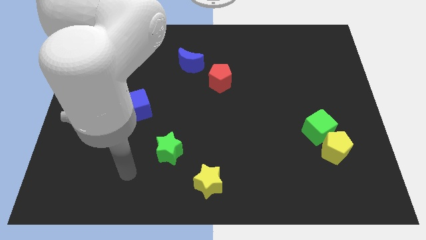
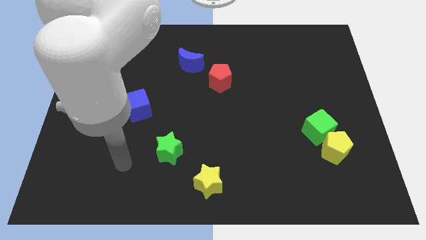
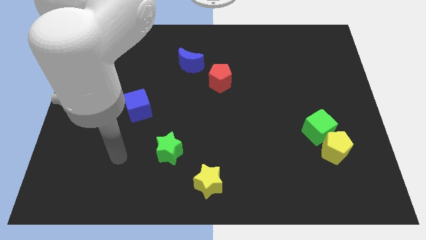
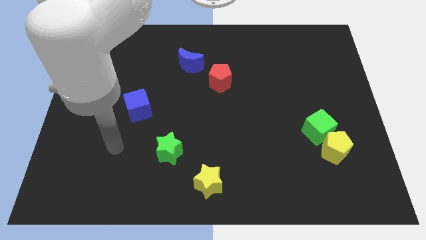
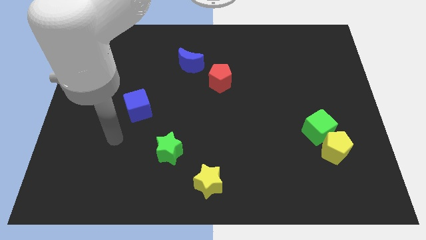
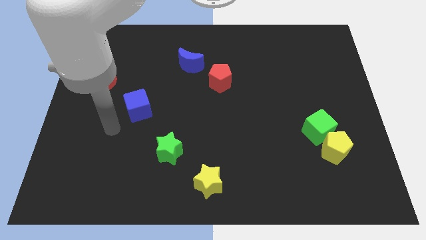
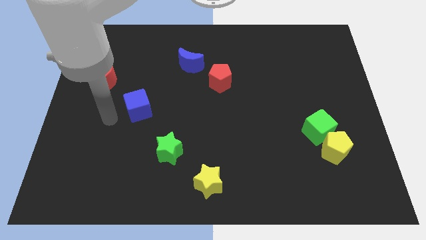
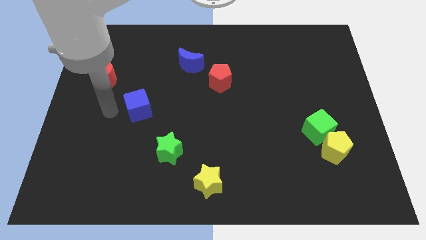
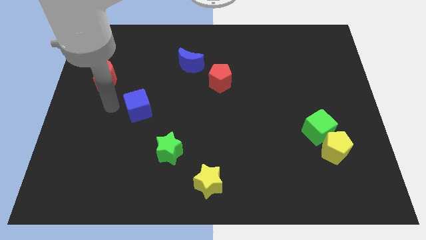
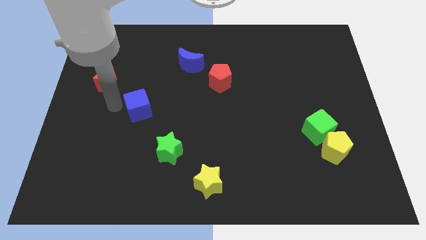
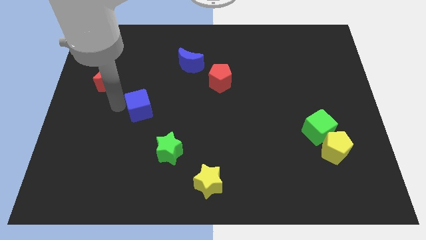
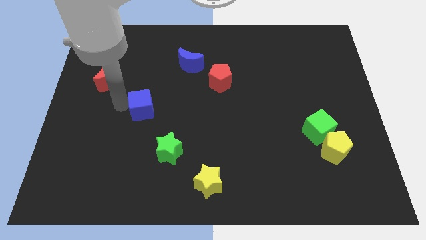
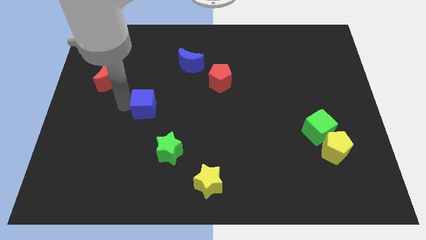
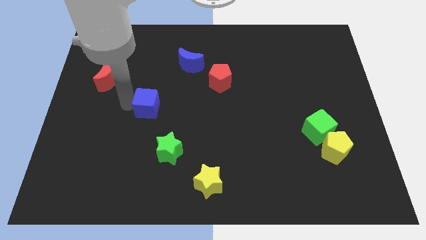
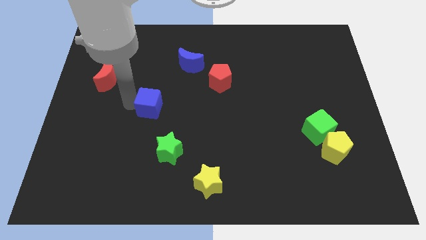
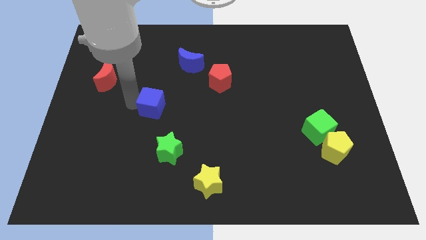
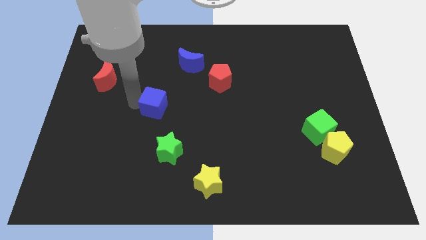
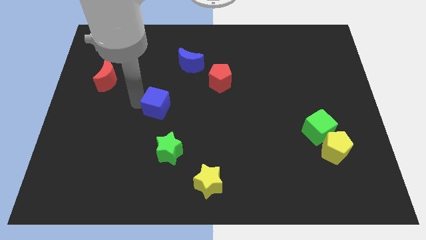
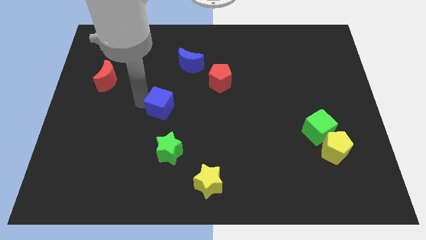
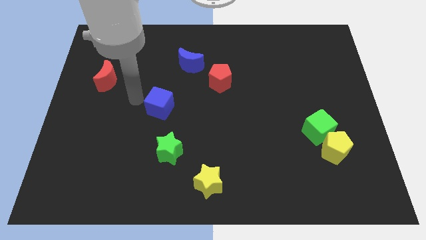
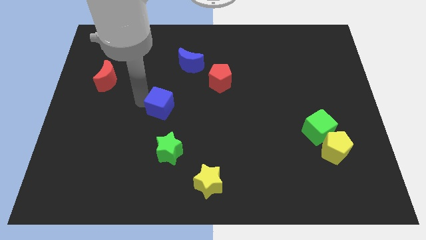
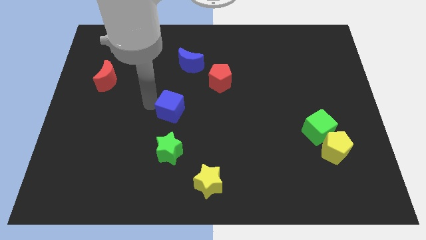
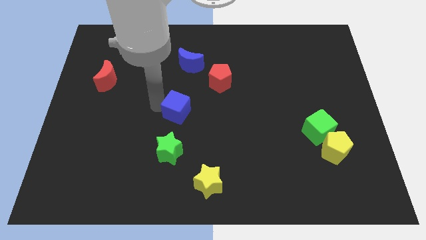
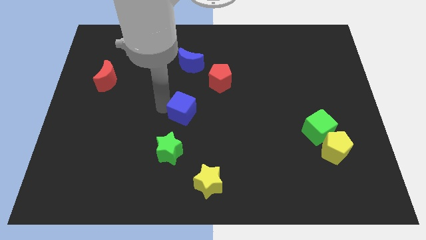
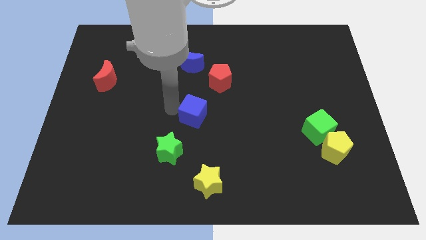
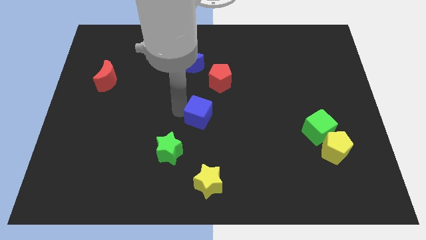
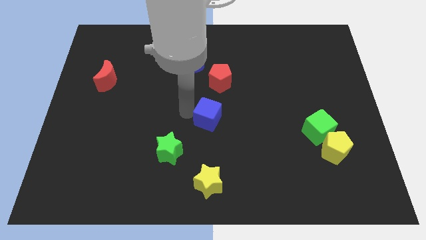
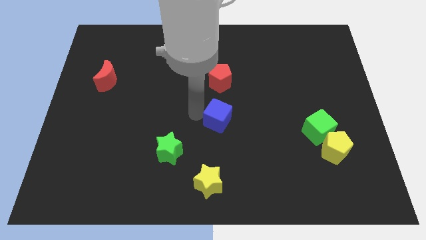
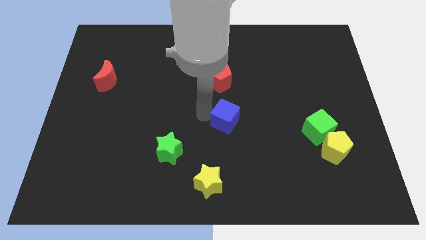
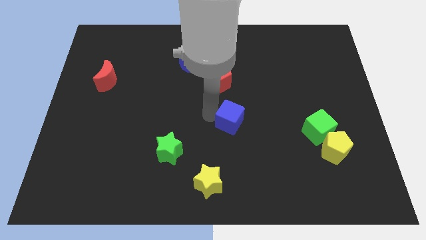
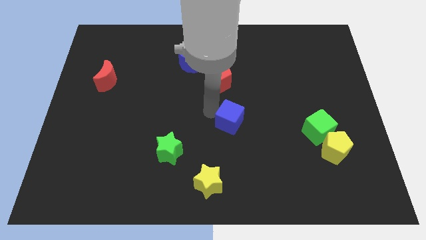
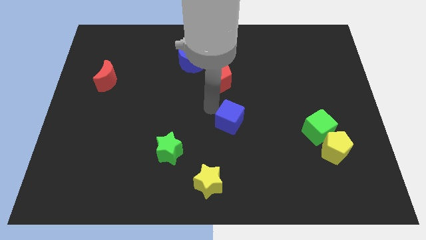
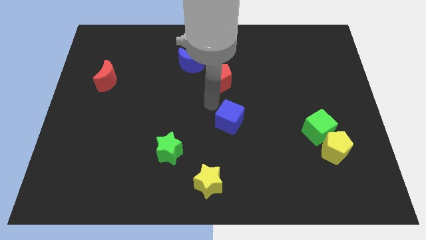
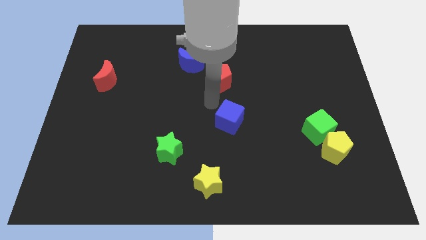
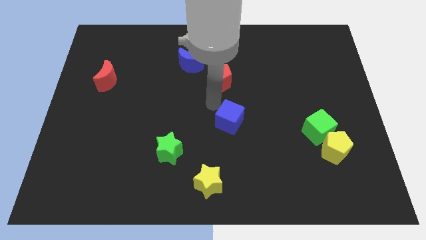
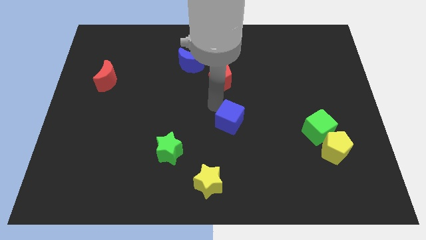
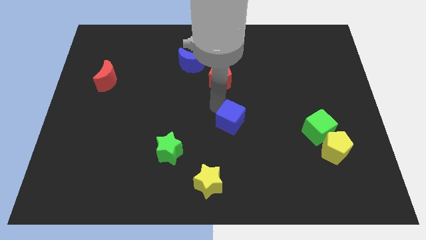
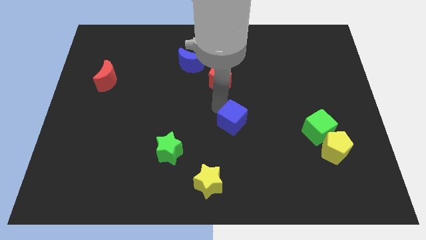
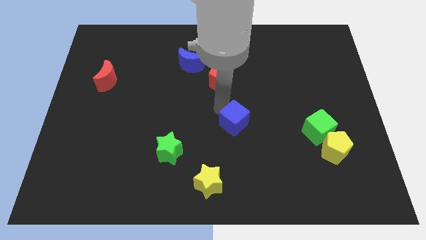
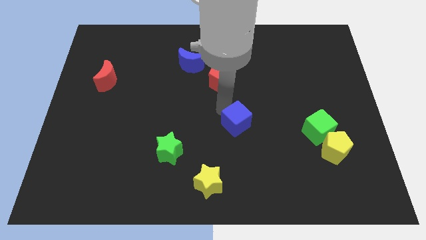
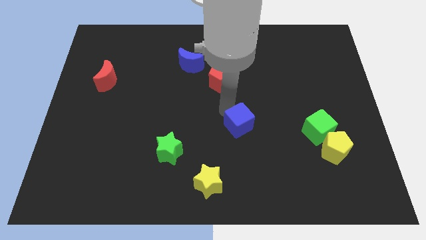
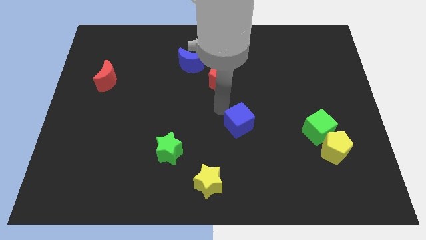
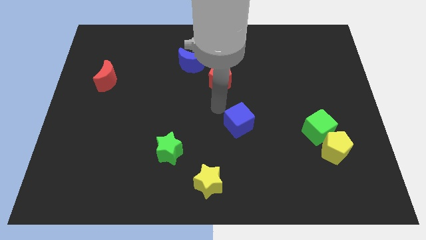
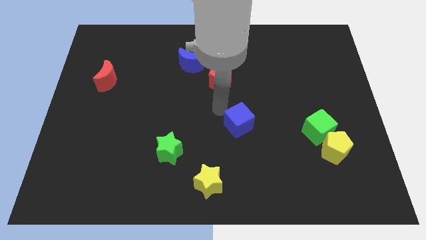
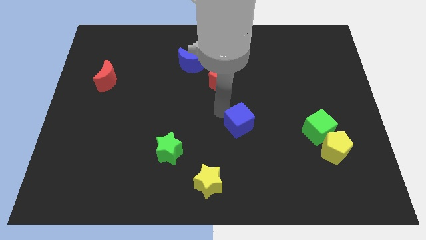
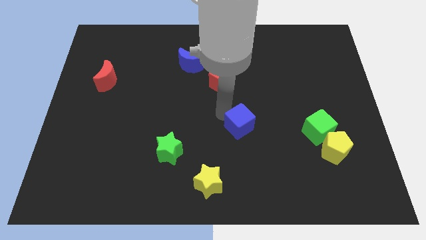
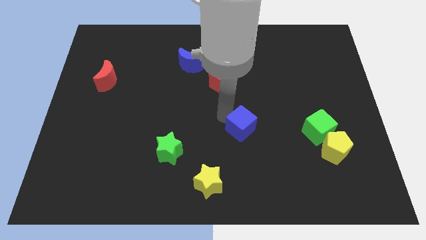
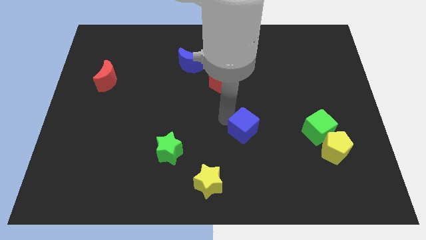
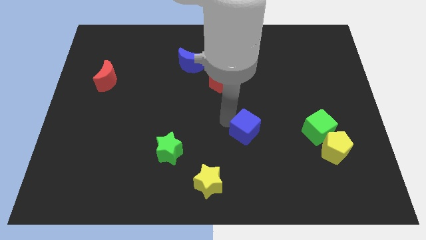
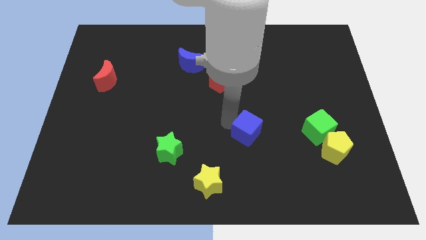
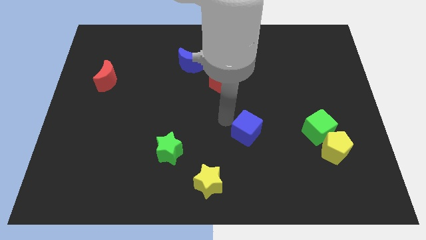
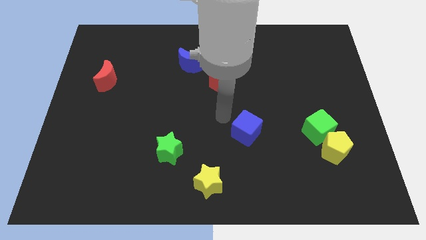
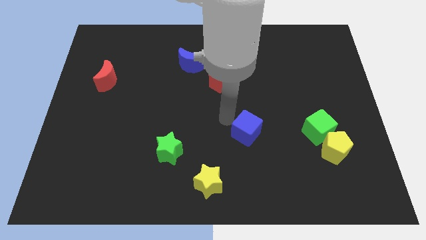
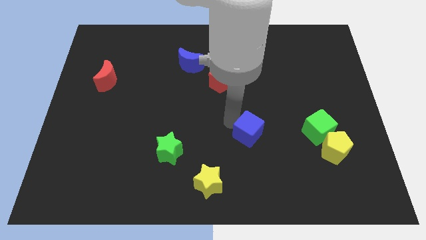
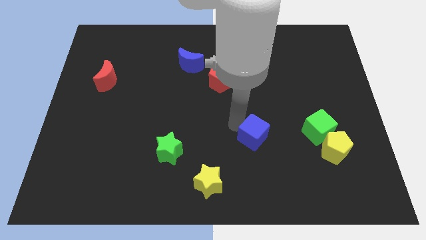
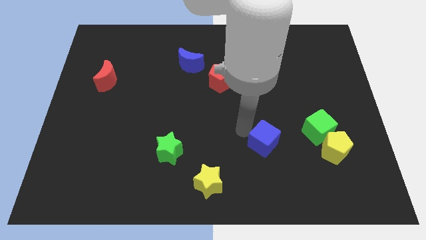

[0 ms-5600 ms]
move the blue cube to the left side of the yellow pentagon

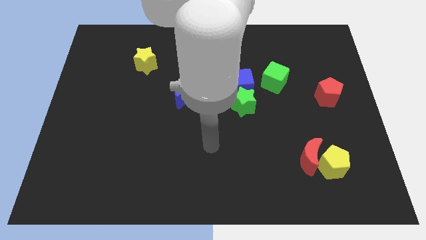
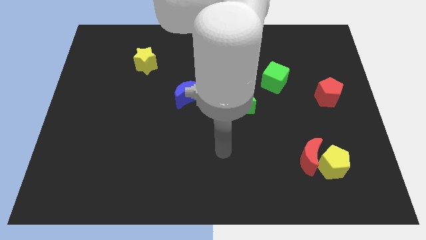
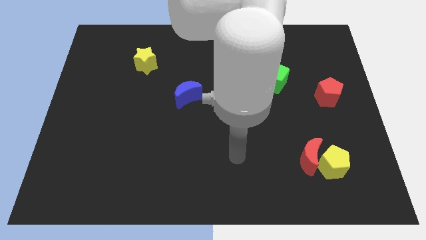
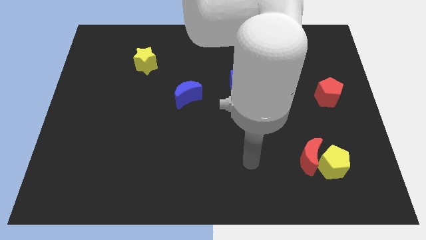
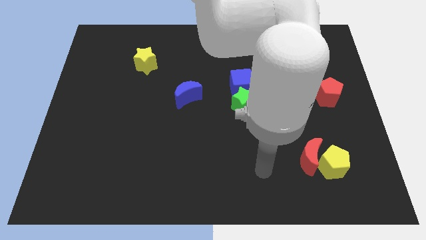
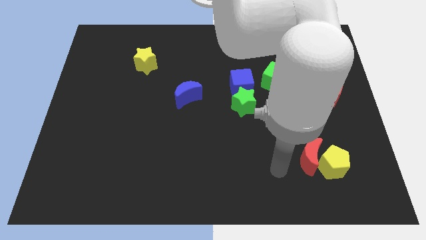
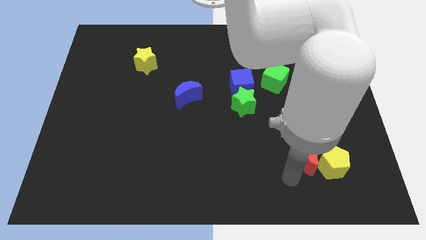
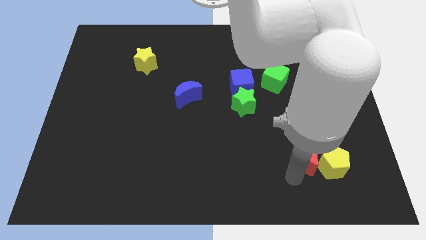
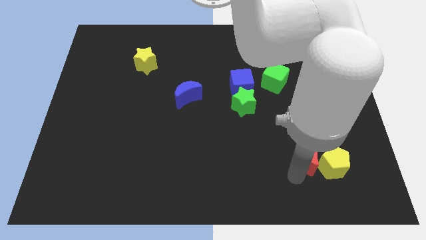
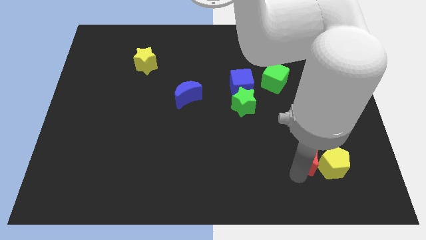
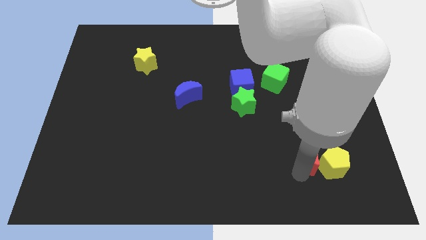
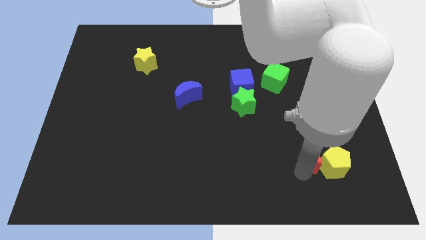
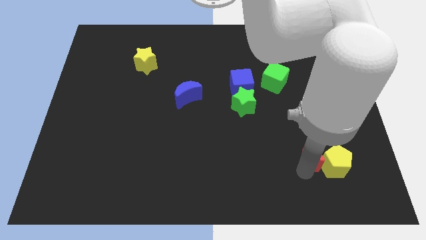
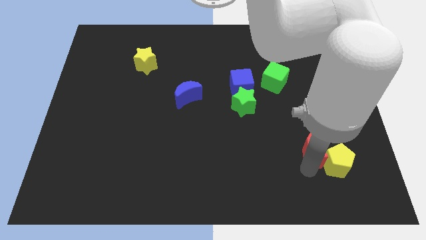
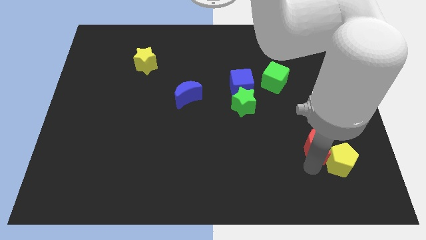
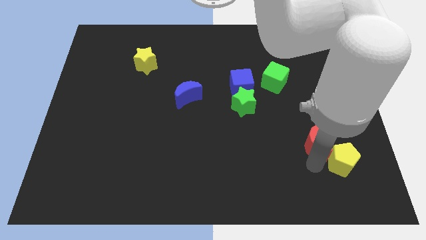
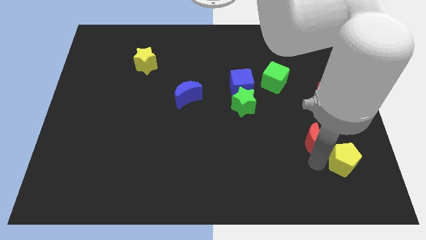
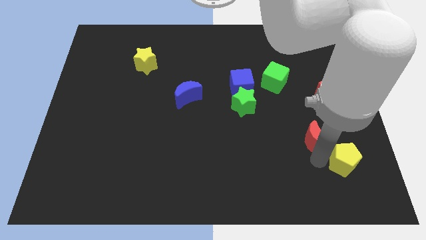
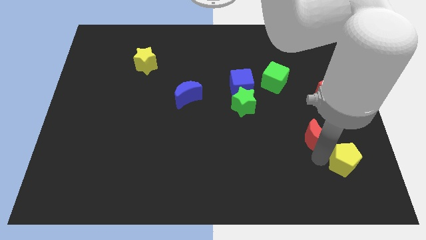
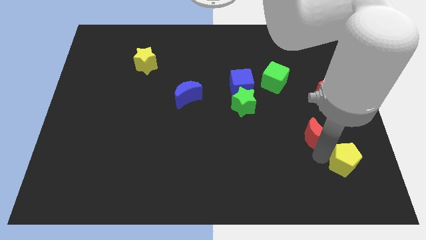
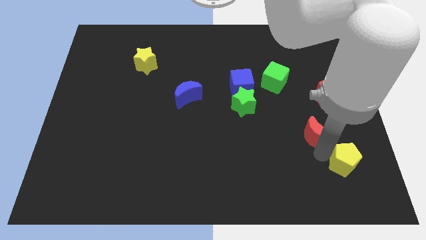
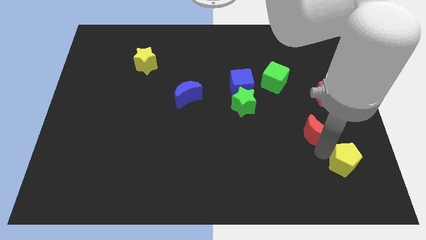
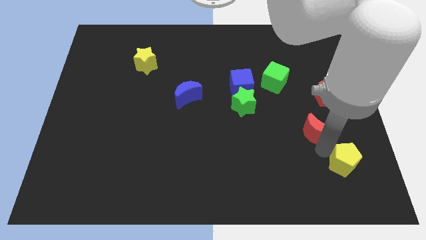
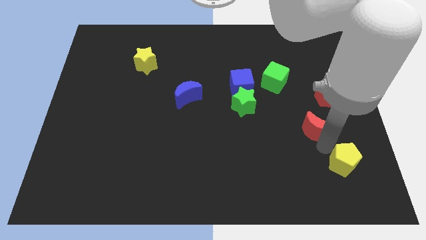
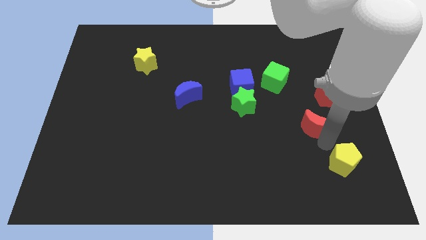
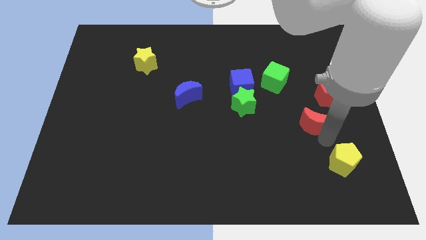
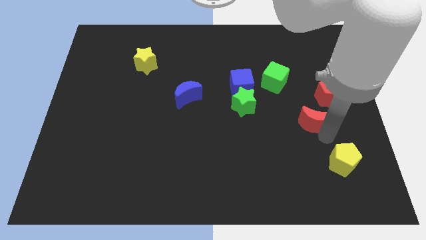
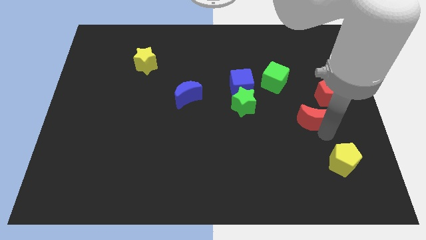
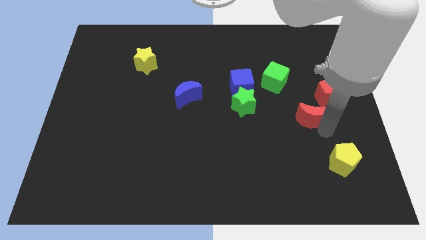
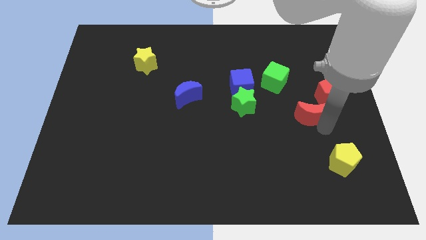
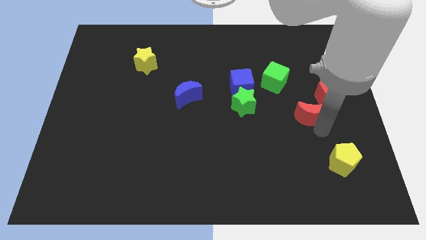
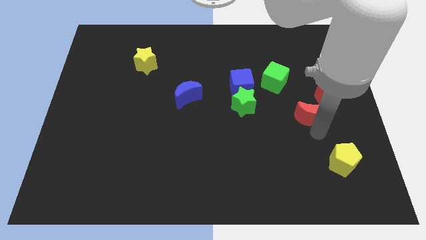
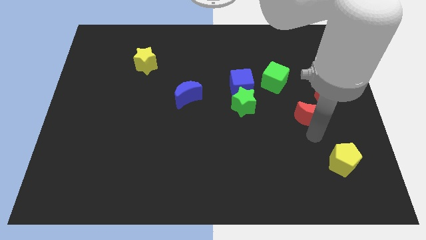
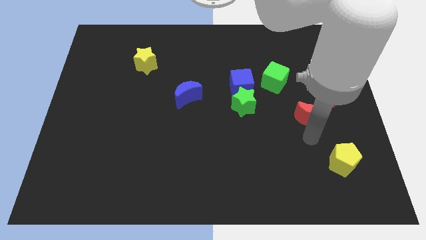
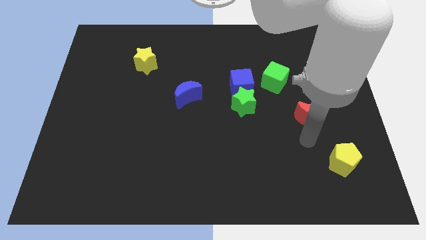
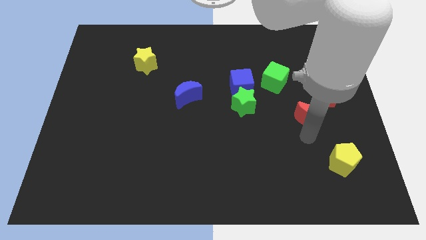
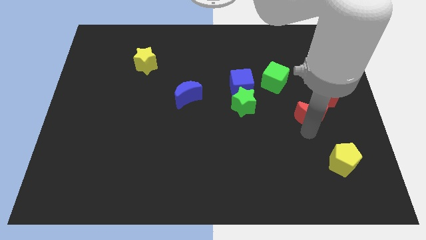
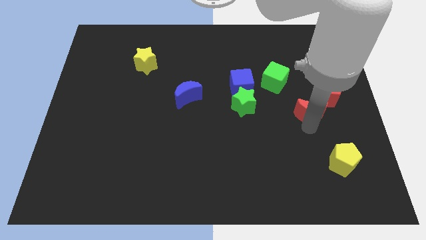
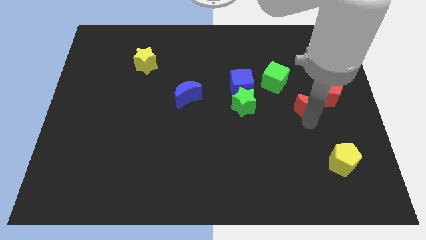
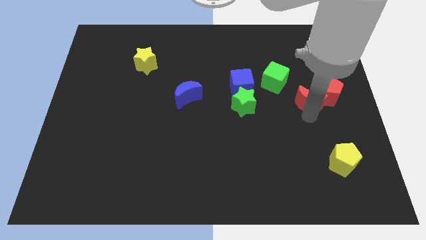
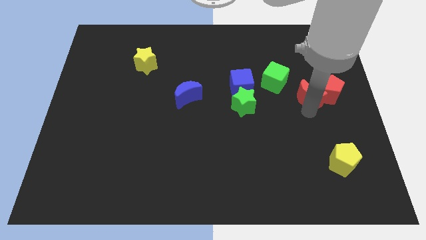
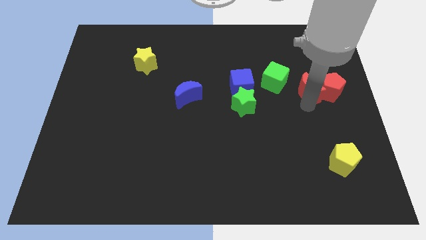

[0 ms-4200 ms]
move the red moon just right of the green cube
